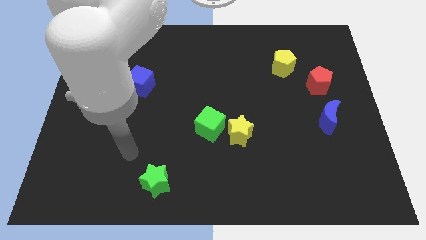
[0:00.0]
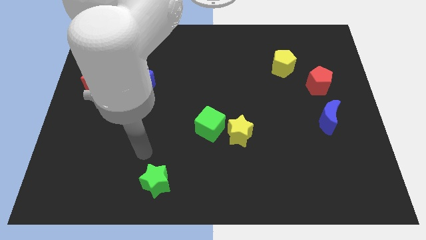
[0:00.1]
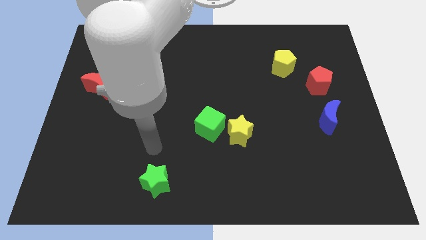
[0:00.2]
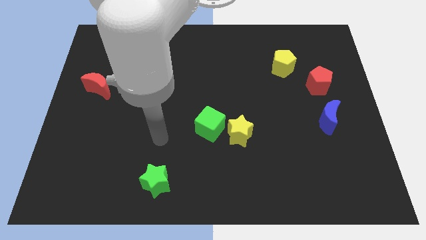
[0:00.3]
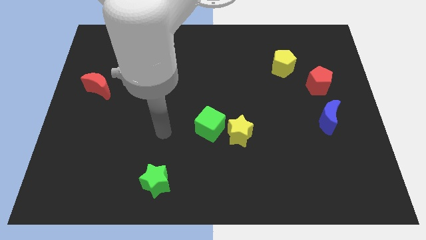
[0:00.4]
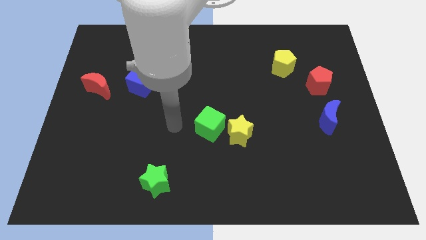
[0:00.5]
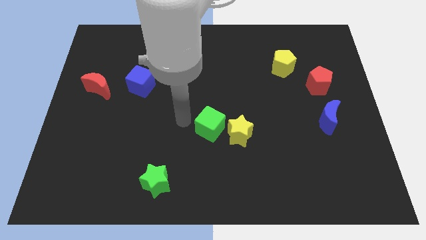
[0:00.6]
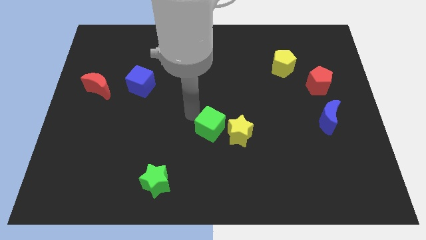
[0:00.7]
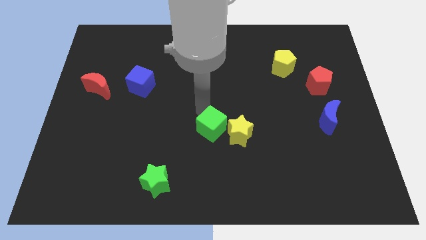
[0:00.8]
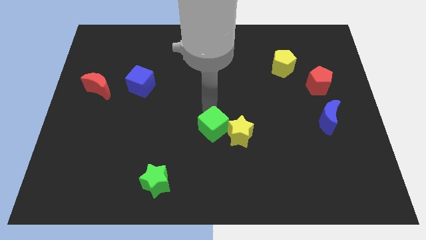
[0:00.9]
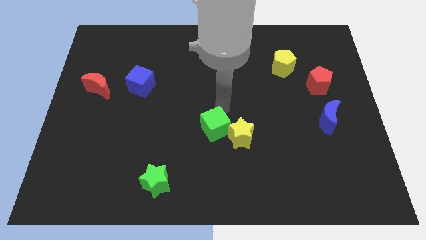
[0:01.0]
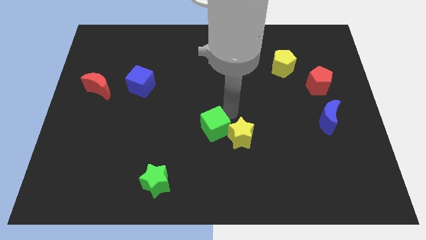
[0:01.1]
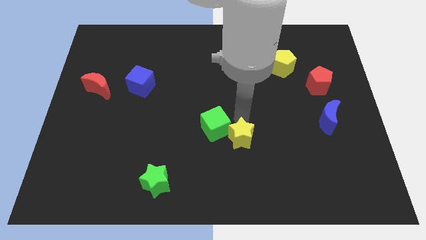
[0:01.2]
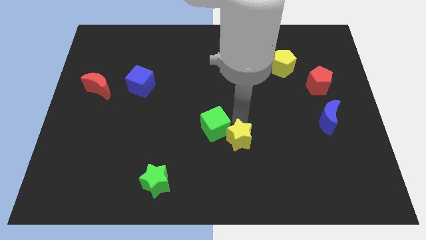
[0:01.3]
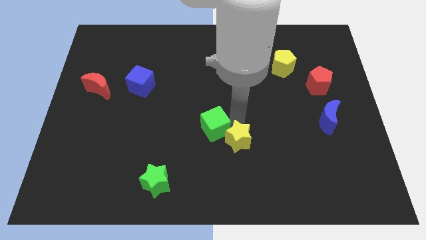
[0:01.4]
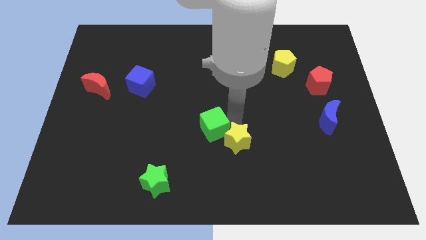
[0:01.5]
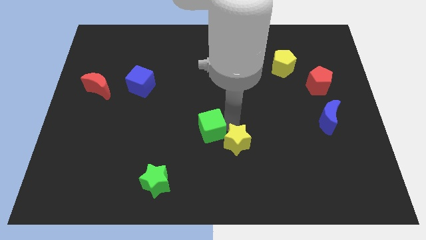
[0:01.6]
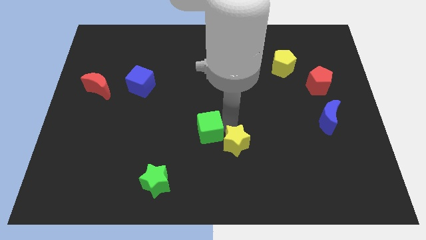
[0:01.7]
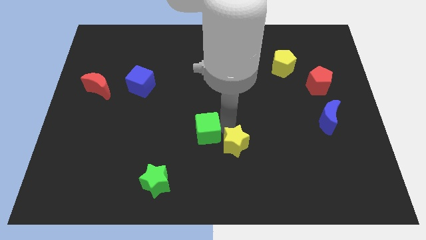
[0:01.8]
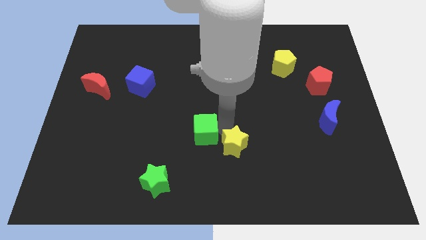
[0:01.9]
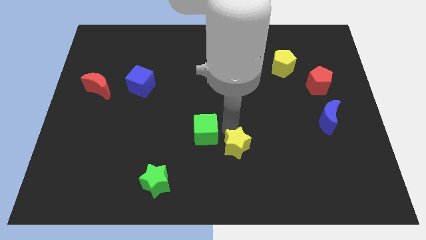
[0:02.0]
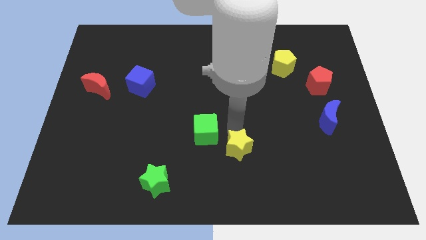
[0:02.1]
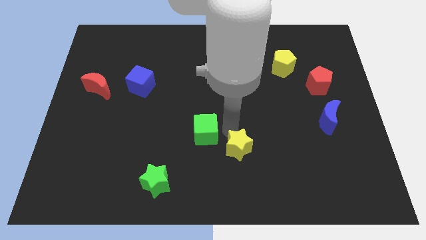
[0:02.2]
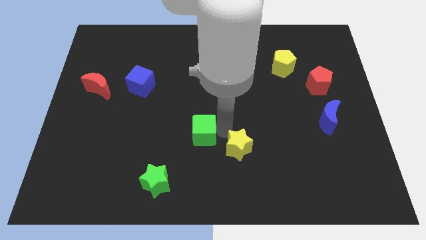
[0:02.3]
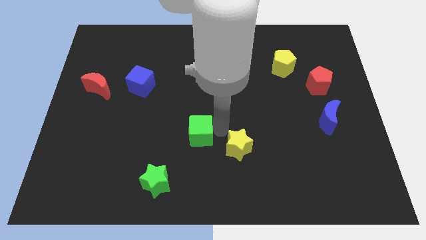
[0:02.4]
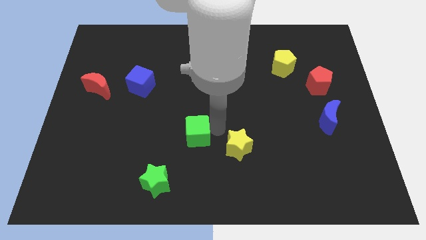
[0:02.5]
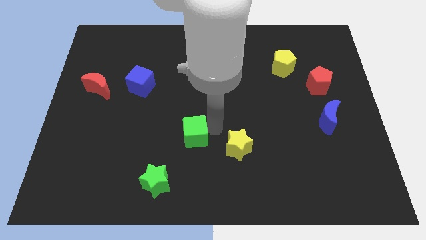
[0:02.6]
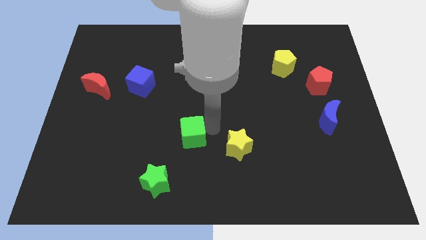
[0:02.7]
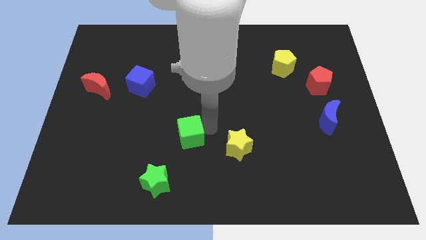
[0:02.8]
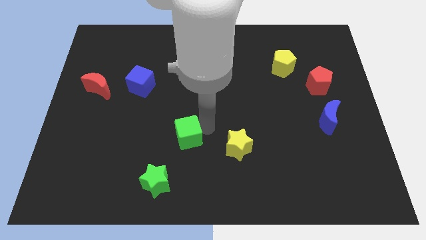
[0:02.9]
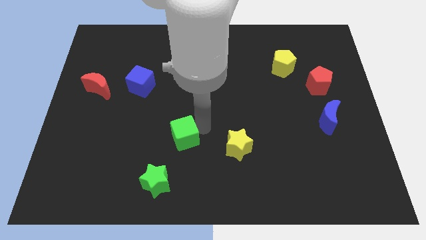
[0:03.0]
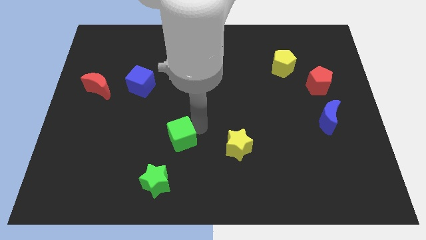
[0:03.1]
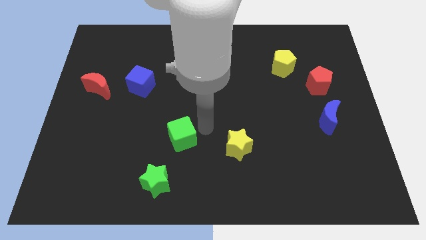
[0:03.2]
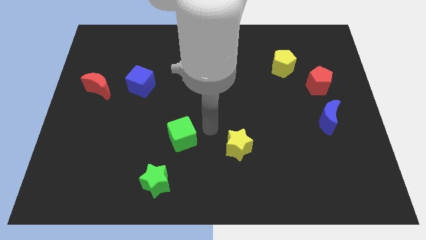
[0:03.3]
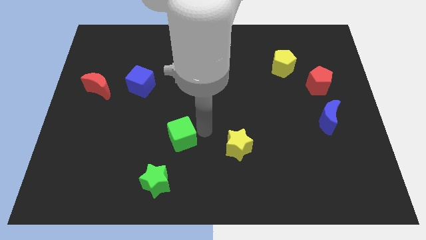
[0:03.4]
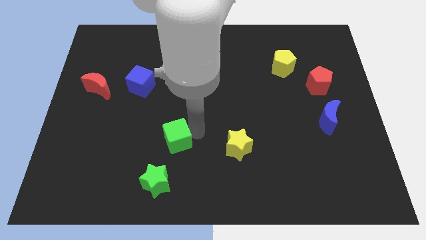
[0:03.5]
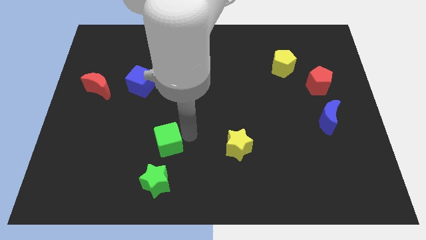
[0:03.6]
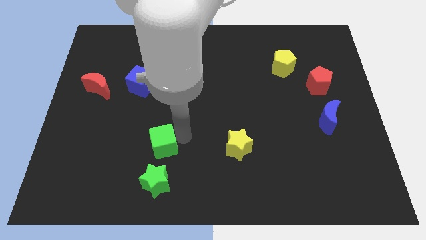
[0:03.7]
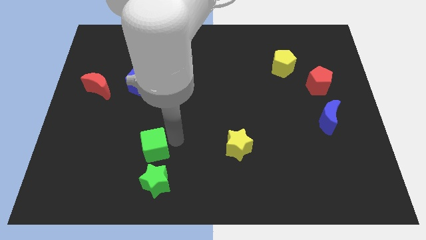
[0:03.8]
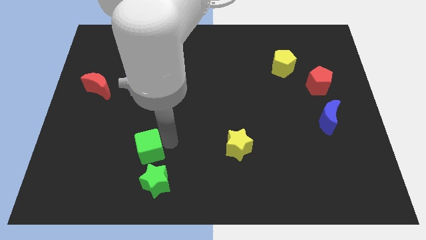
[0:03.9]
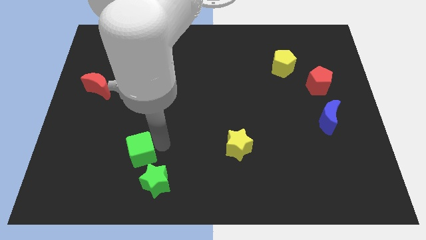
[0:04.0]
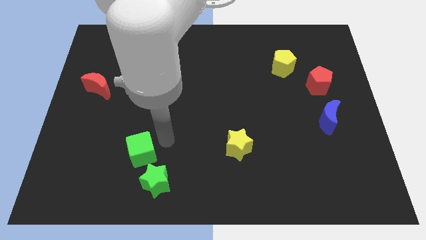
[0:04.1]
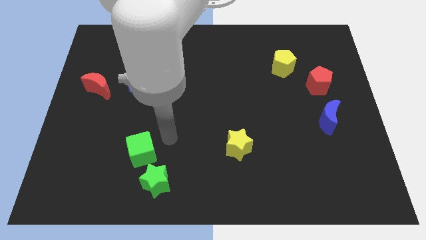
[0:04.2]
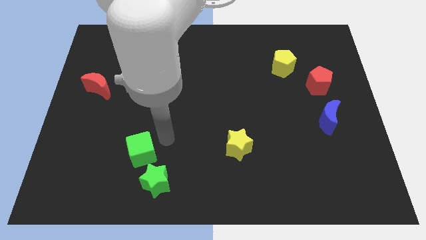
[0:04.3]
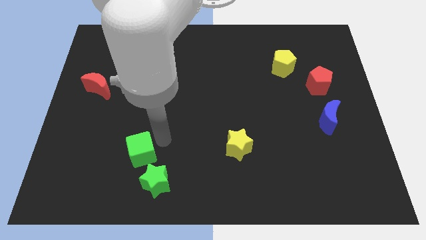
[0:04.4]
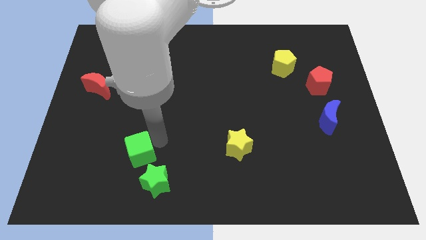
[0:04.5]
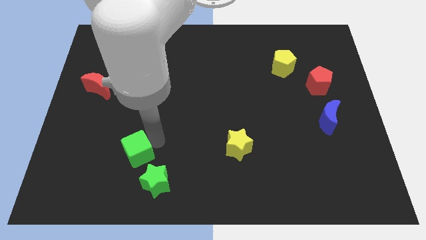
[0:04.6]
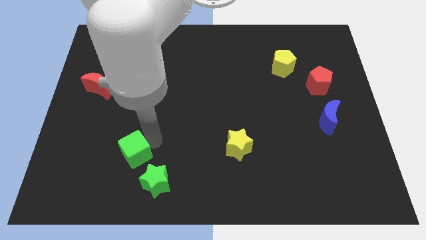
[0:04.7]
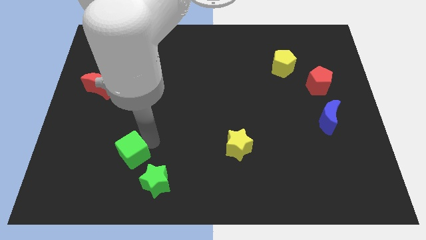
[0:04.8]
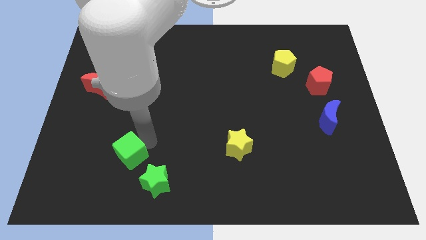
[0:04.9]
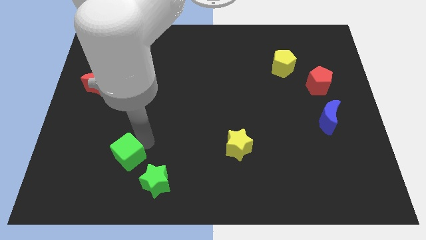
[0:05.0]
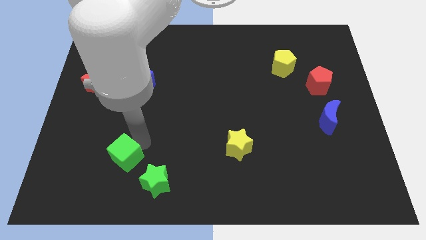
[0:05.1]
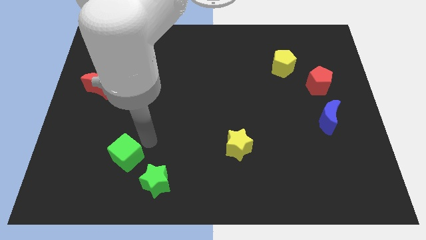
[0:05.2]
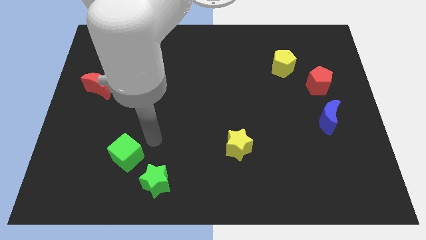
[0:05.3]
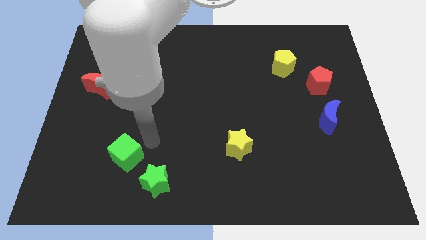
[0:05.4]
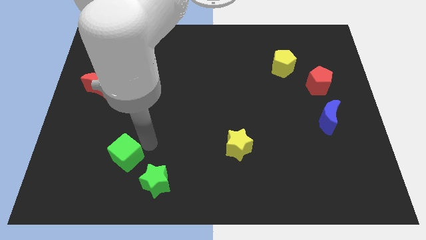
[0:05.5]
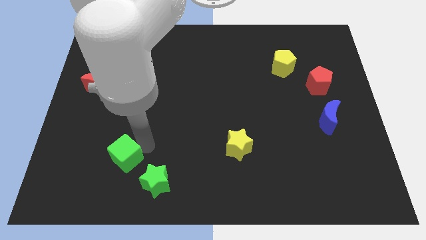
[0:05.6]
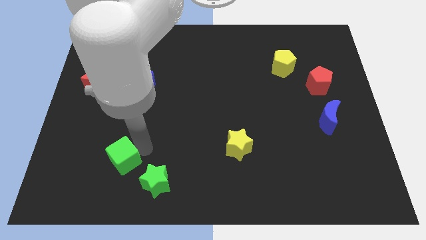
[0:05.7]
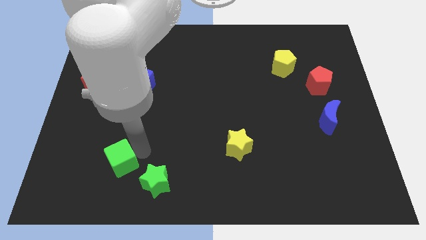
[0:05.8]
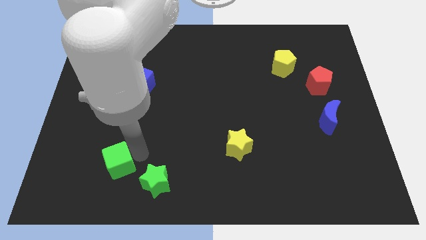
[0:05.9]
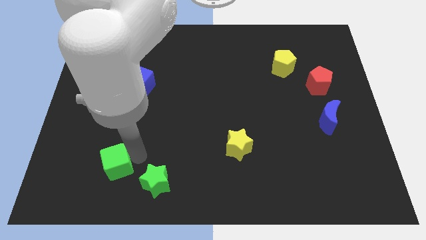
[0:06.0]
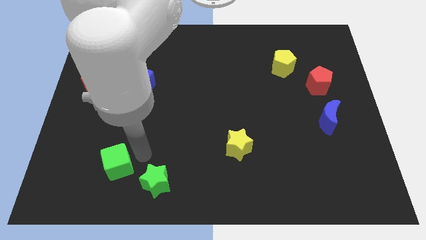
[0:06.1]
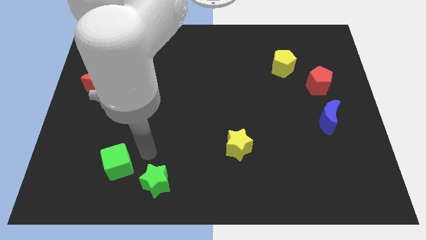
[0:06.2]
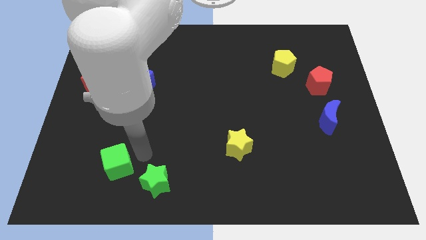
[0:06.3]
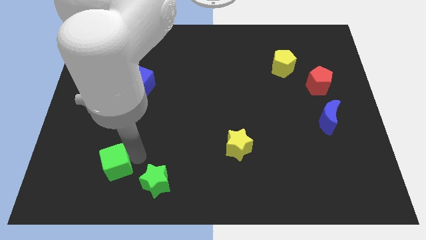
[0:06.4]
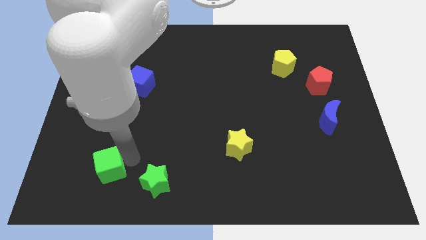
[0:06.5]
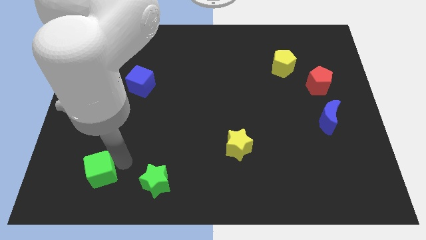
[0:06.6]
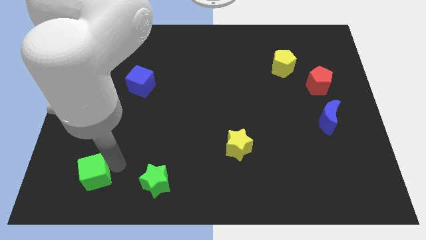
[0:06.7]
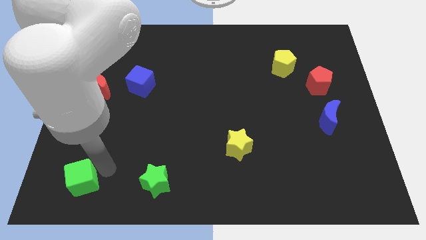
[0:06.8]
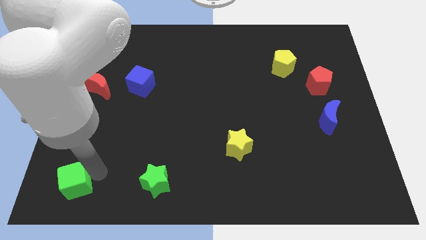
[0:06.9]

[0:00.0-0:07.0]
move the green cube to the bottom left

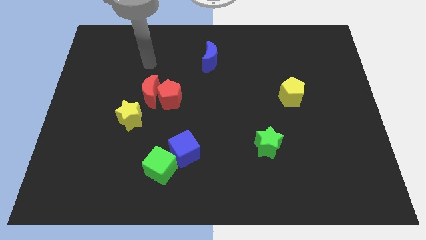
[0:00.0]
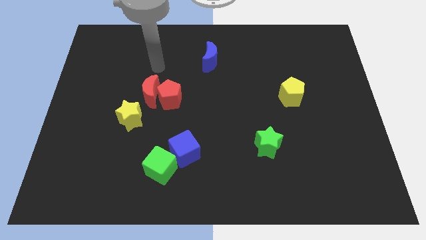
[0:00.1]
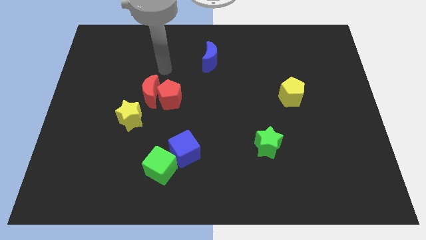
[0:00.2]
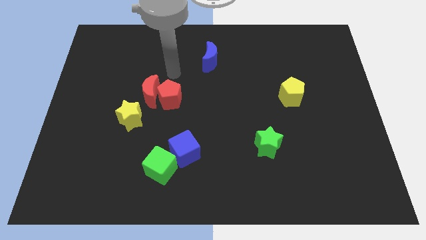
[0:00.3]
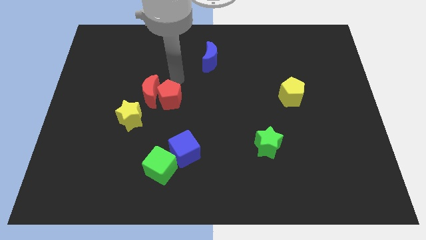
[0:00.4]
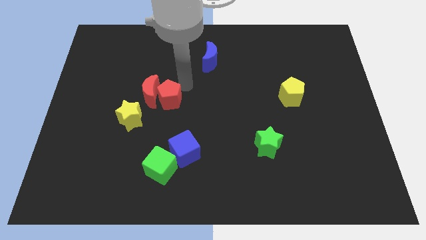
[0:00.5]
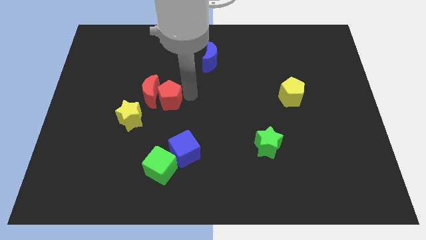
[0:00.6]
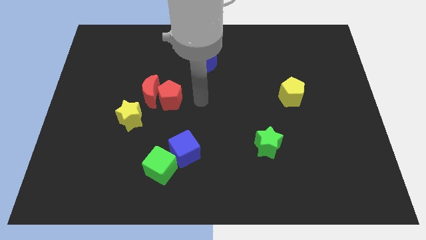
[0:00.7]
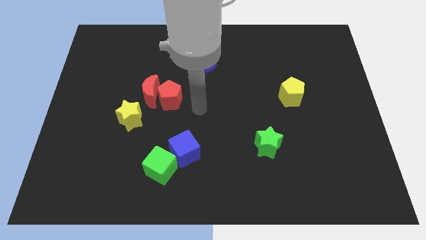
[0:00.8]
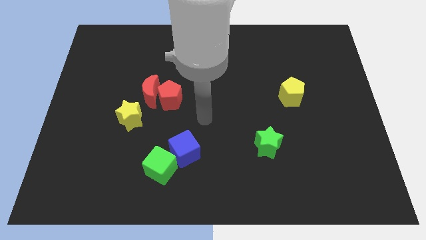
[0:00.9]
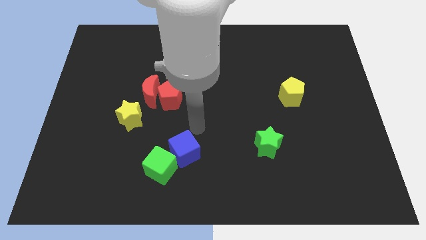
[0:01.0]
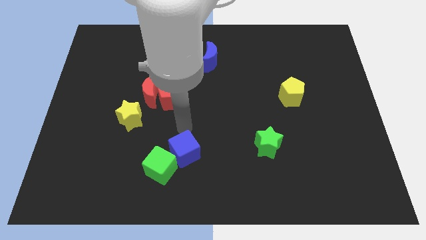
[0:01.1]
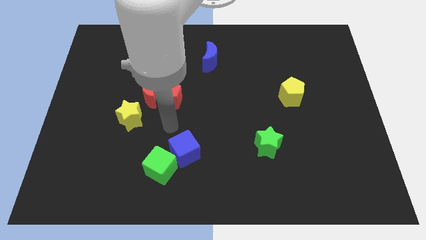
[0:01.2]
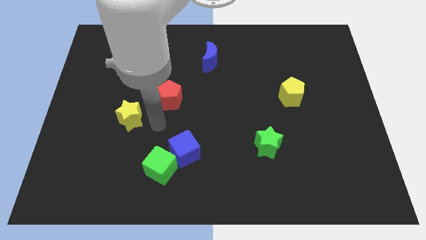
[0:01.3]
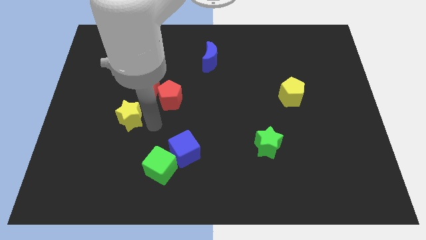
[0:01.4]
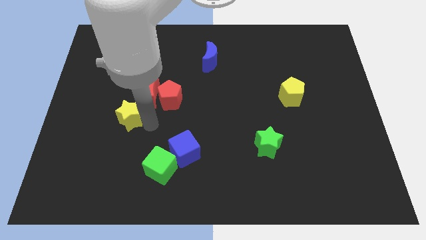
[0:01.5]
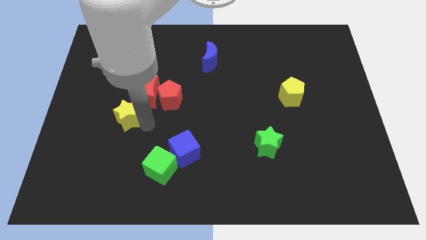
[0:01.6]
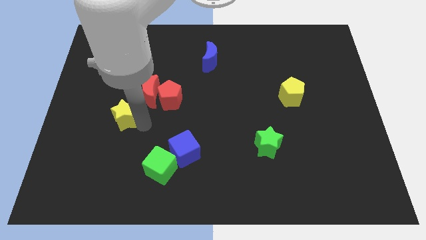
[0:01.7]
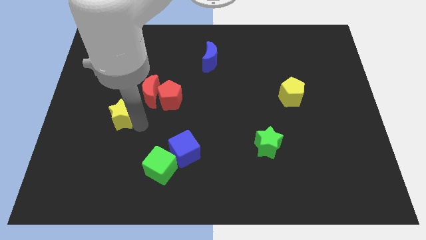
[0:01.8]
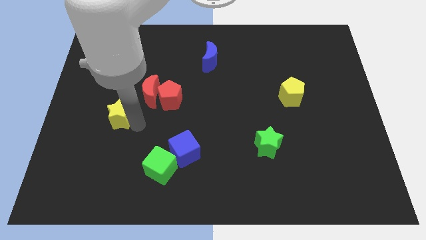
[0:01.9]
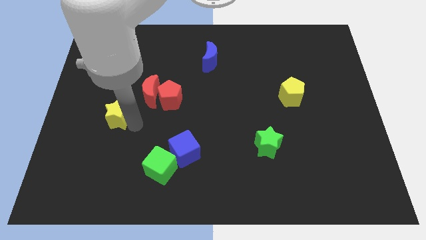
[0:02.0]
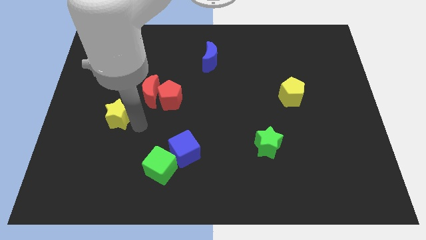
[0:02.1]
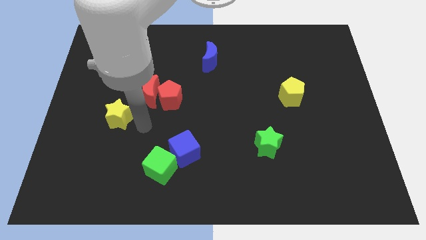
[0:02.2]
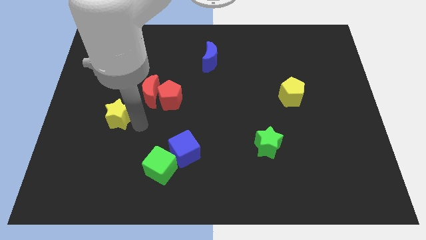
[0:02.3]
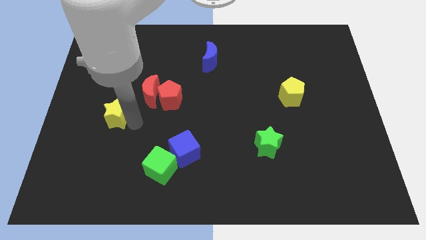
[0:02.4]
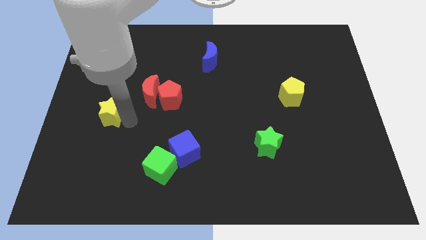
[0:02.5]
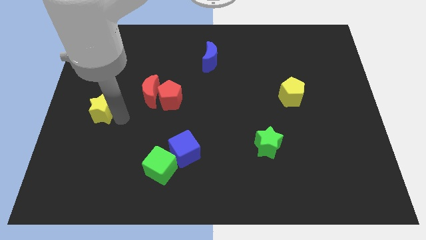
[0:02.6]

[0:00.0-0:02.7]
push the yellow star to the left side
